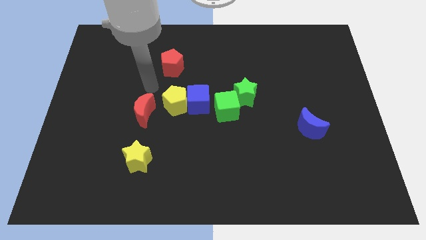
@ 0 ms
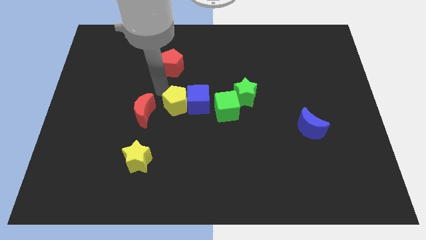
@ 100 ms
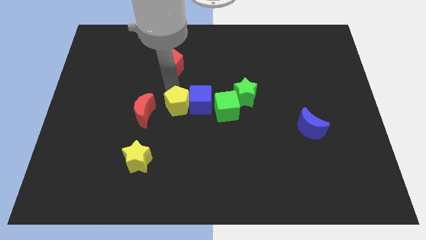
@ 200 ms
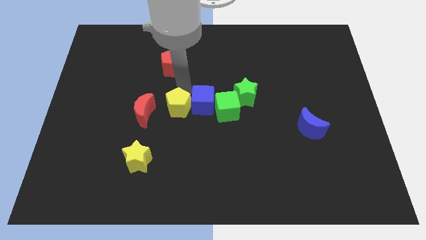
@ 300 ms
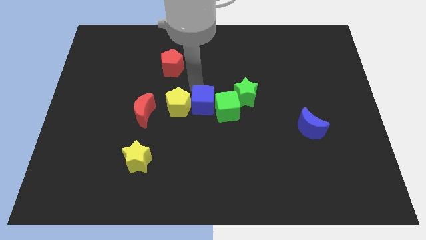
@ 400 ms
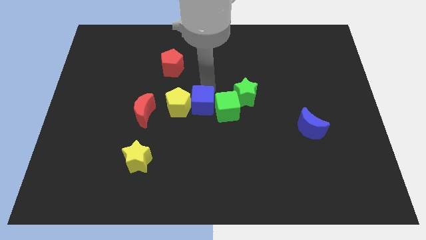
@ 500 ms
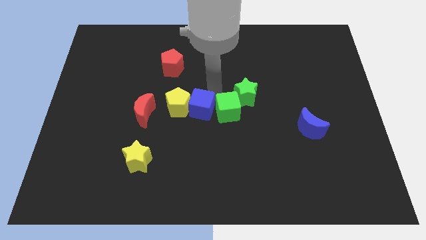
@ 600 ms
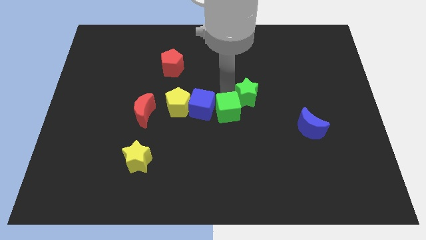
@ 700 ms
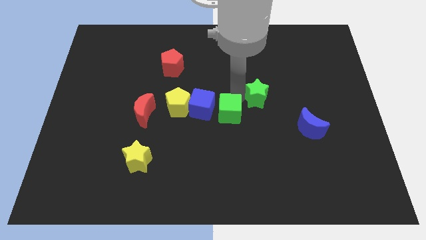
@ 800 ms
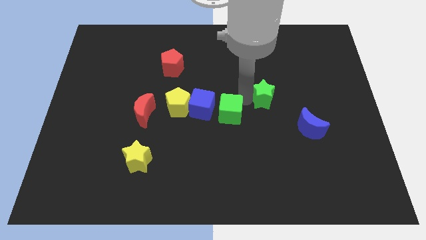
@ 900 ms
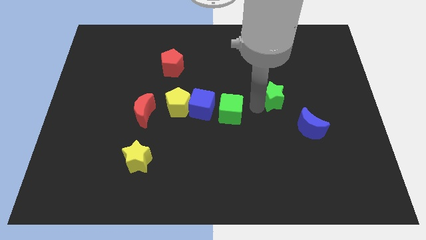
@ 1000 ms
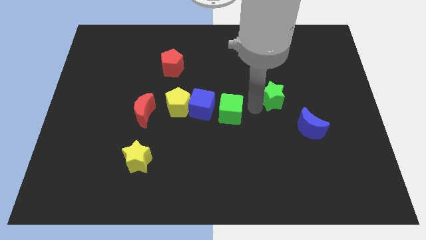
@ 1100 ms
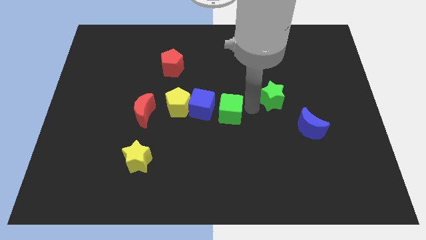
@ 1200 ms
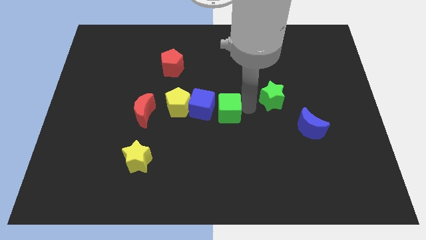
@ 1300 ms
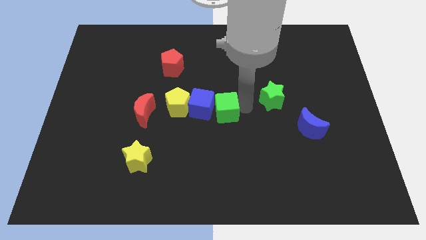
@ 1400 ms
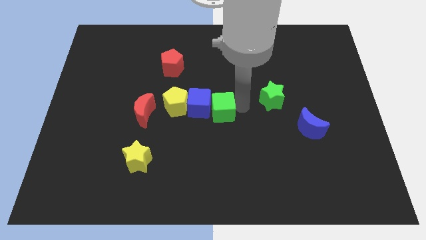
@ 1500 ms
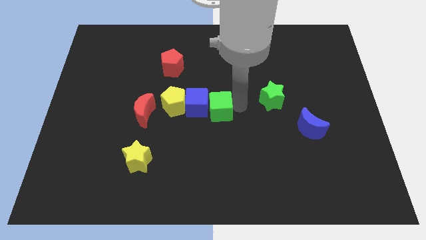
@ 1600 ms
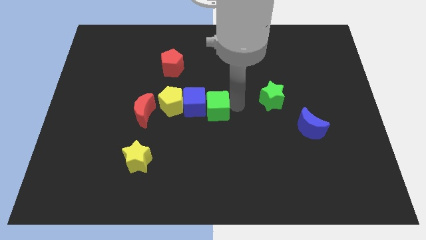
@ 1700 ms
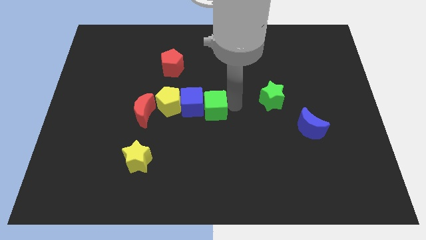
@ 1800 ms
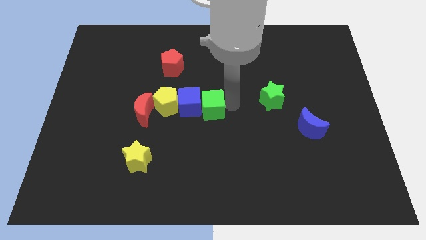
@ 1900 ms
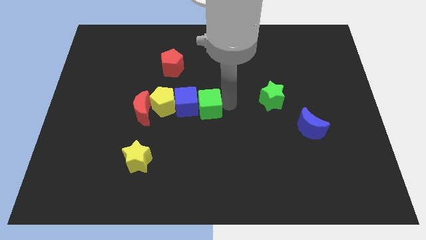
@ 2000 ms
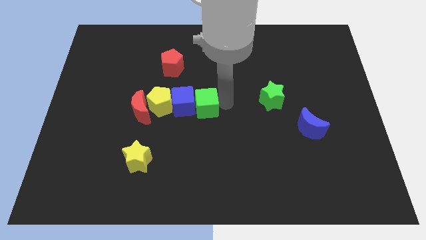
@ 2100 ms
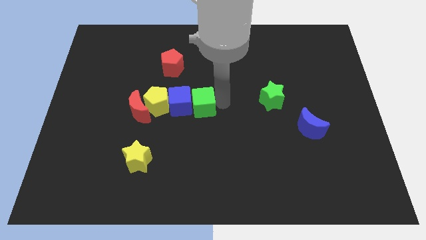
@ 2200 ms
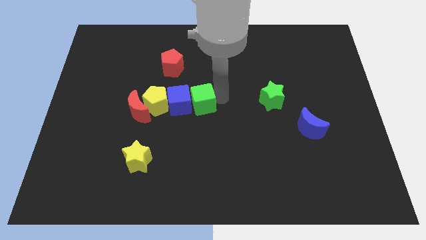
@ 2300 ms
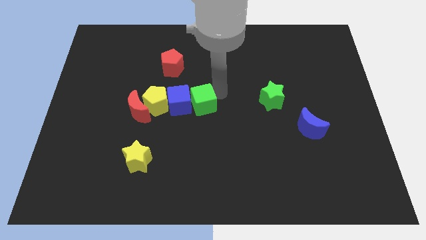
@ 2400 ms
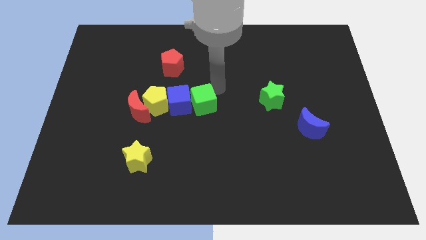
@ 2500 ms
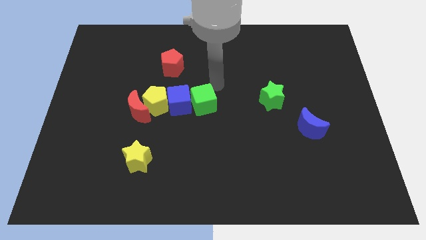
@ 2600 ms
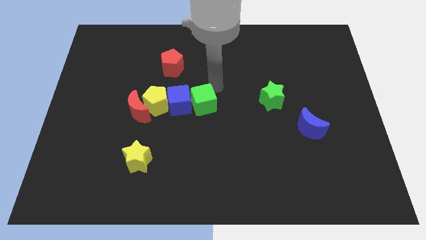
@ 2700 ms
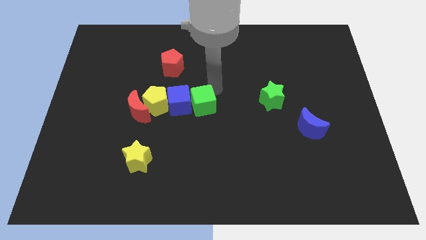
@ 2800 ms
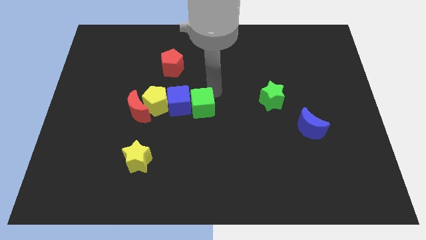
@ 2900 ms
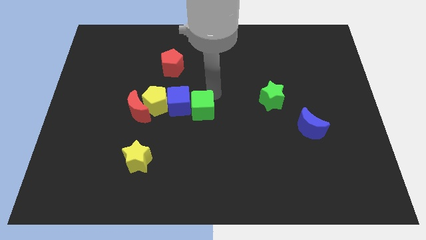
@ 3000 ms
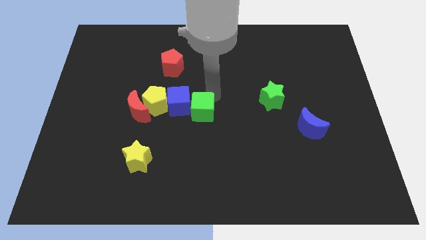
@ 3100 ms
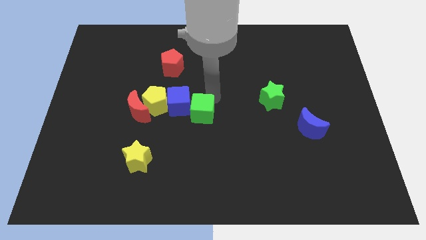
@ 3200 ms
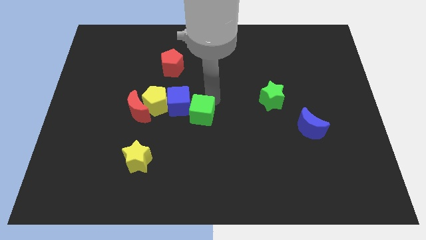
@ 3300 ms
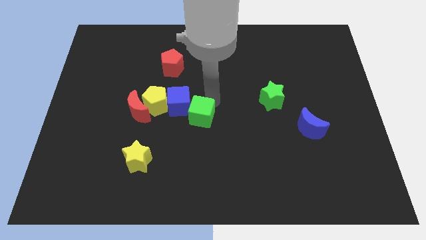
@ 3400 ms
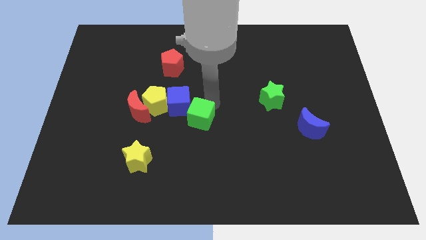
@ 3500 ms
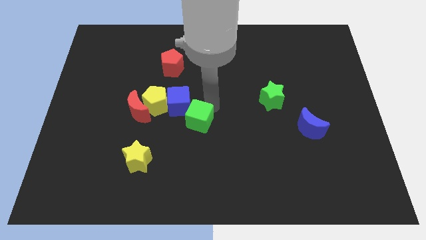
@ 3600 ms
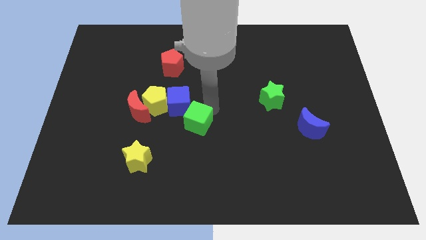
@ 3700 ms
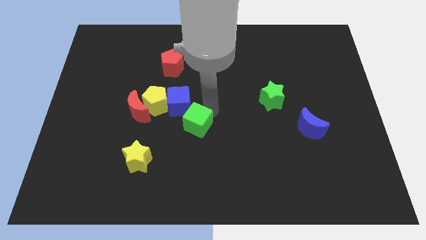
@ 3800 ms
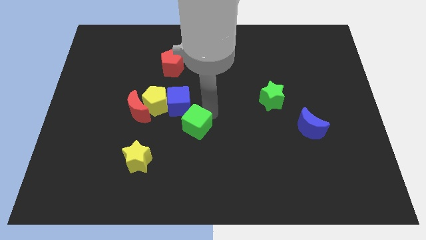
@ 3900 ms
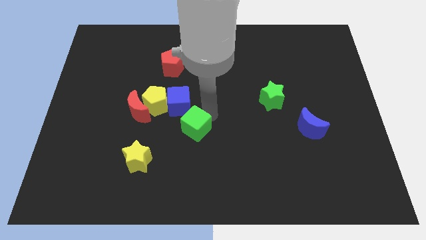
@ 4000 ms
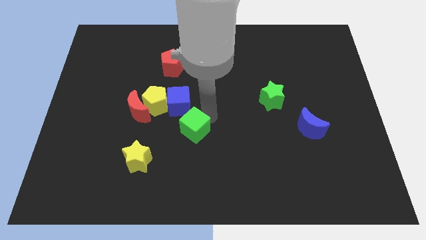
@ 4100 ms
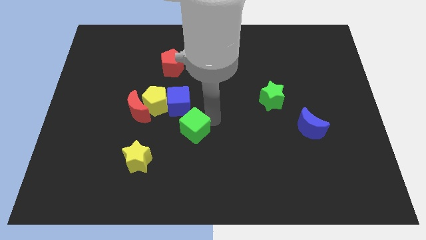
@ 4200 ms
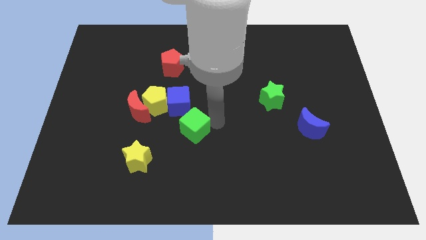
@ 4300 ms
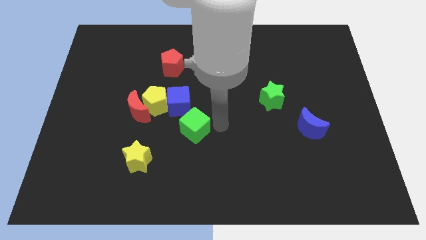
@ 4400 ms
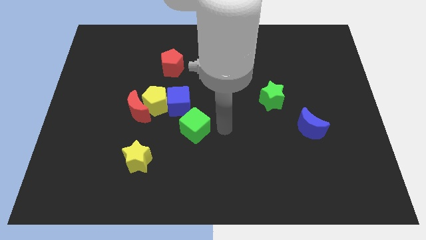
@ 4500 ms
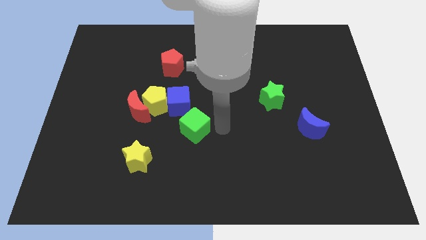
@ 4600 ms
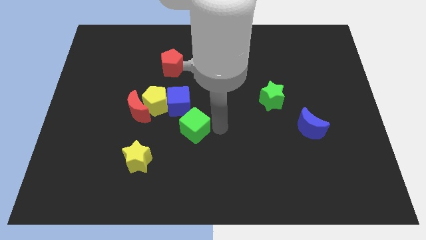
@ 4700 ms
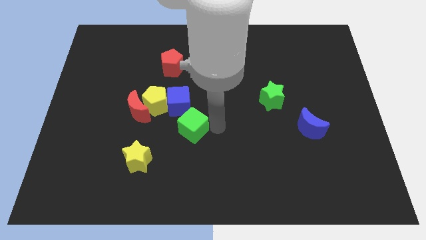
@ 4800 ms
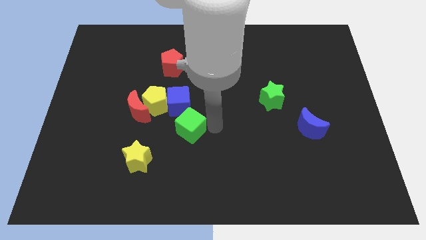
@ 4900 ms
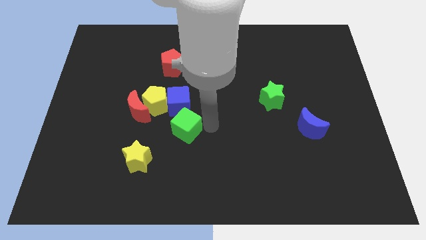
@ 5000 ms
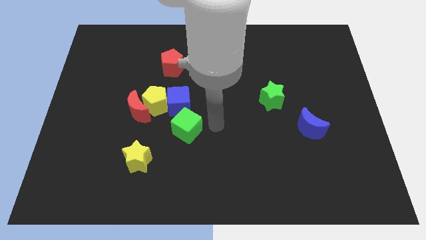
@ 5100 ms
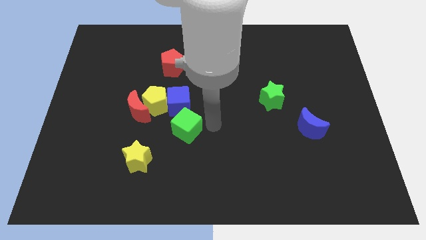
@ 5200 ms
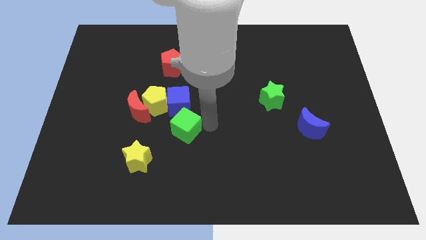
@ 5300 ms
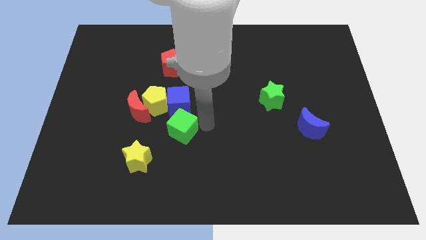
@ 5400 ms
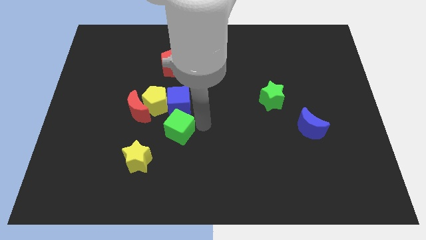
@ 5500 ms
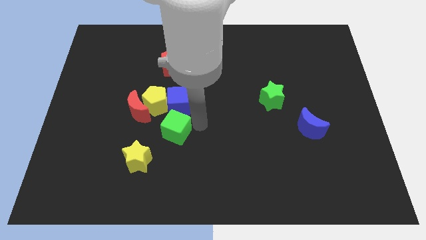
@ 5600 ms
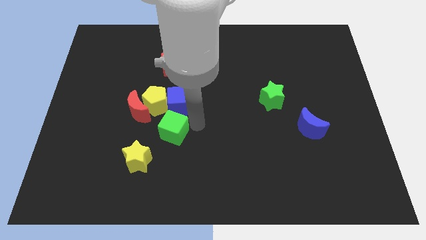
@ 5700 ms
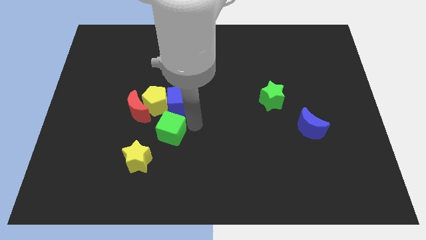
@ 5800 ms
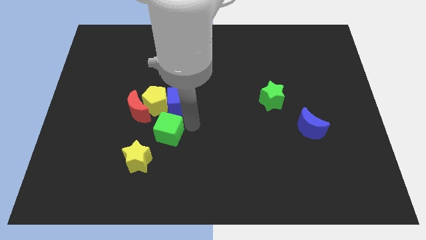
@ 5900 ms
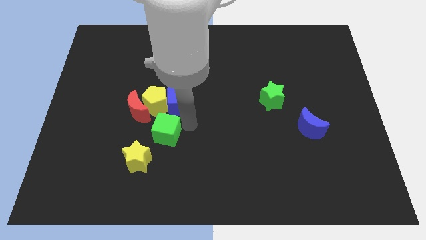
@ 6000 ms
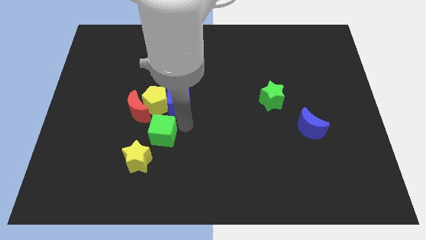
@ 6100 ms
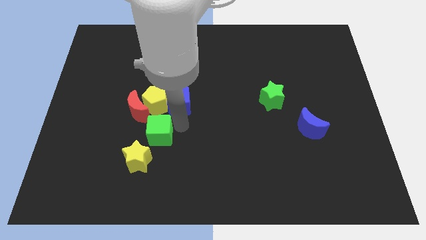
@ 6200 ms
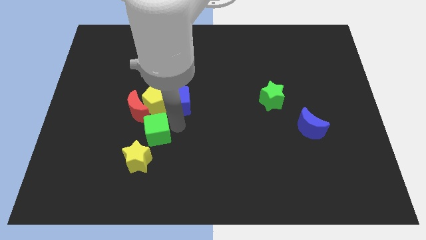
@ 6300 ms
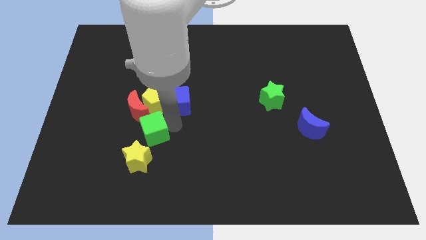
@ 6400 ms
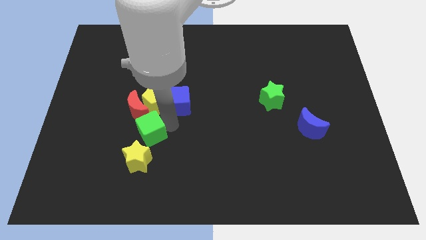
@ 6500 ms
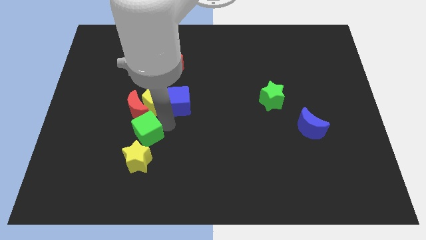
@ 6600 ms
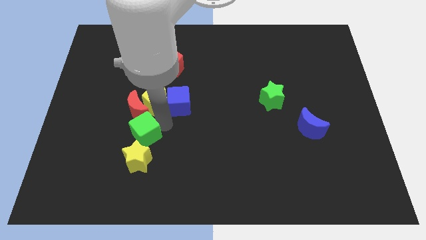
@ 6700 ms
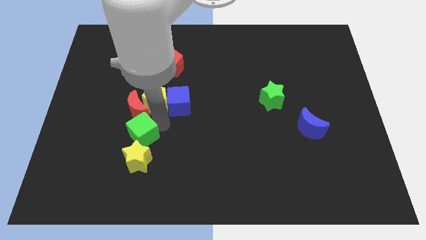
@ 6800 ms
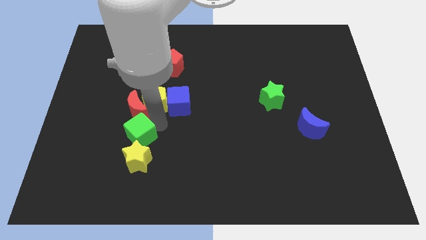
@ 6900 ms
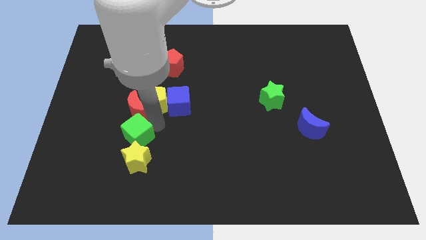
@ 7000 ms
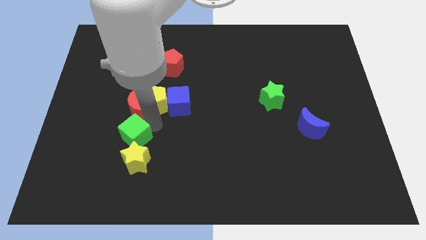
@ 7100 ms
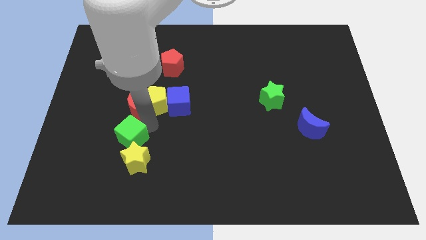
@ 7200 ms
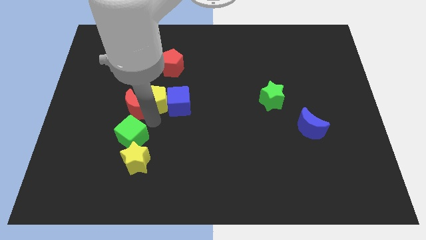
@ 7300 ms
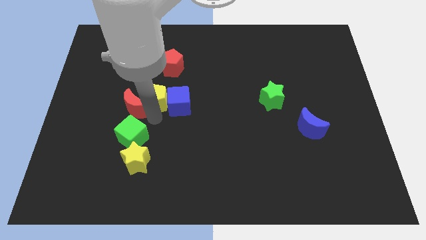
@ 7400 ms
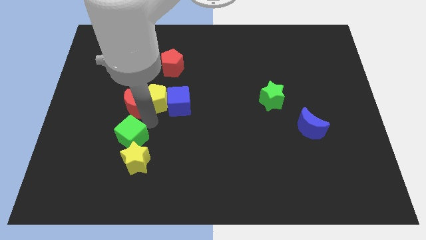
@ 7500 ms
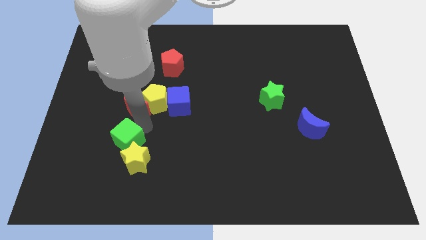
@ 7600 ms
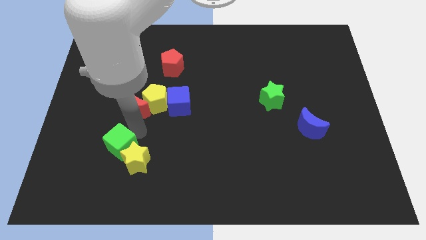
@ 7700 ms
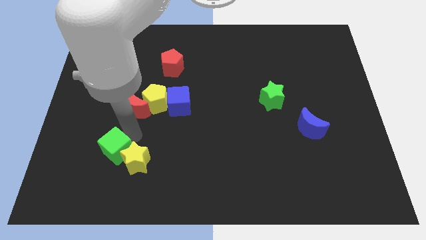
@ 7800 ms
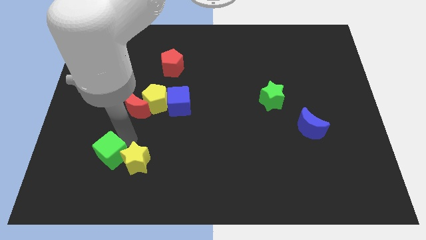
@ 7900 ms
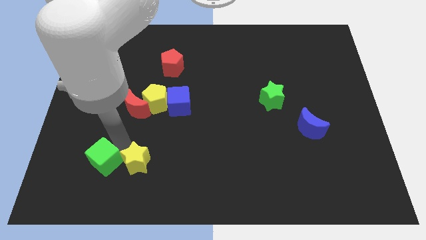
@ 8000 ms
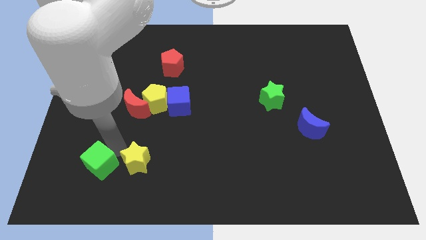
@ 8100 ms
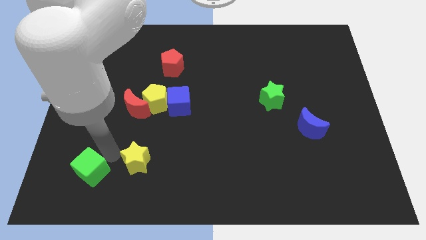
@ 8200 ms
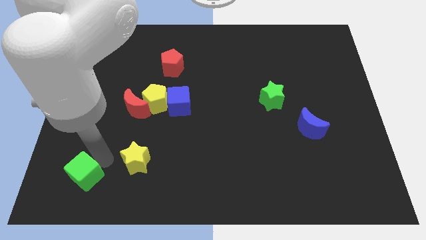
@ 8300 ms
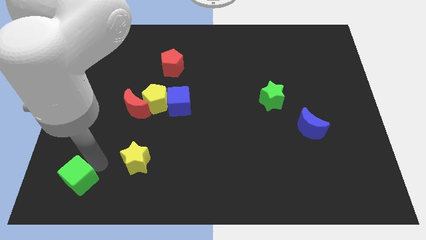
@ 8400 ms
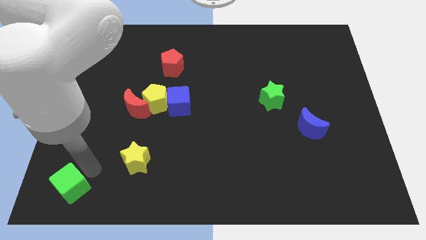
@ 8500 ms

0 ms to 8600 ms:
push the green cube to the bottom left of the board
